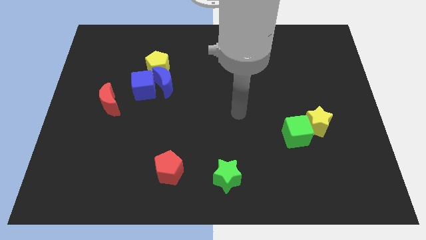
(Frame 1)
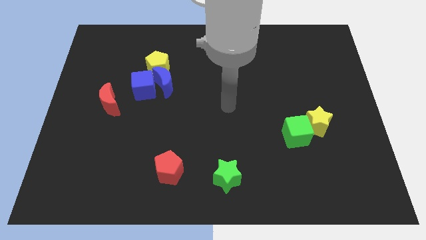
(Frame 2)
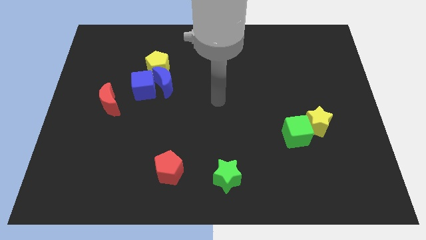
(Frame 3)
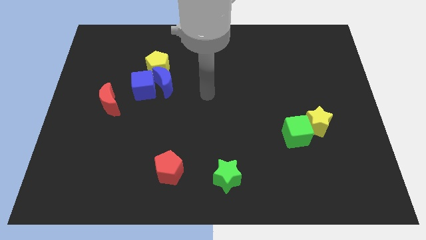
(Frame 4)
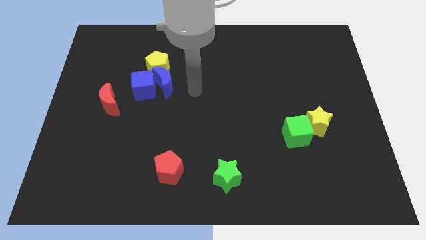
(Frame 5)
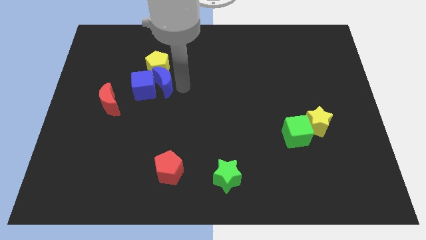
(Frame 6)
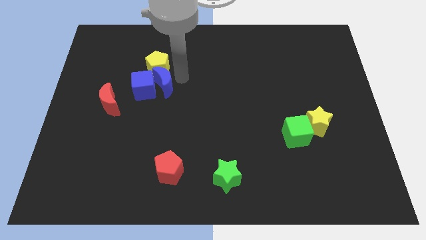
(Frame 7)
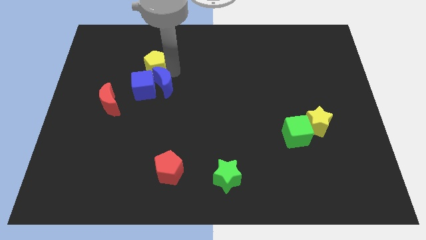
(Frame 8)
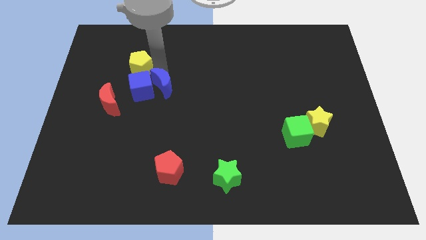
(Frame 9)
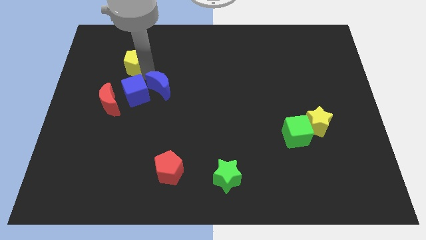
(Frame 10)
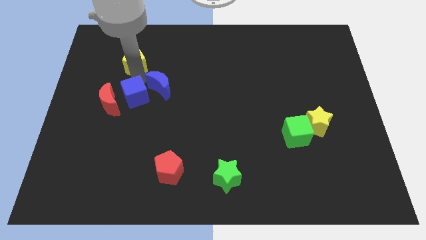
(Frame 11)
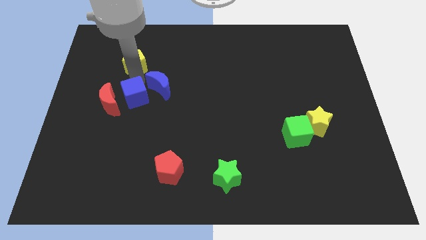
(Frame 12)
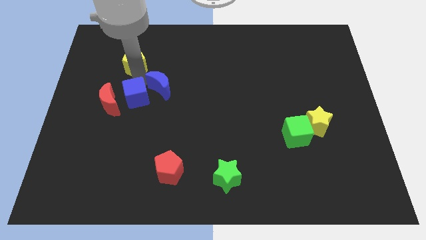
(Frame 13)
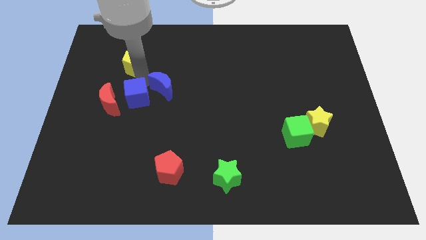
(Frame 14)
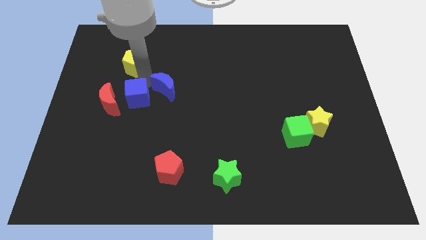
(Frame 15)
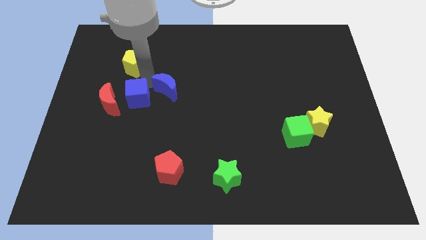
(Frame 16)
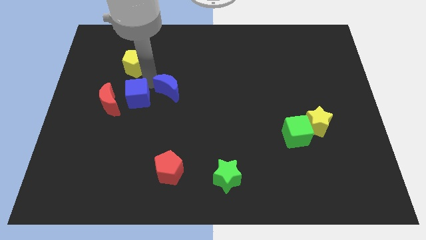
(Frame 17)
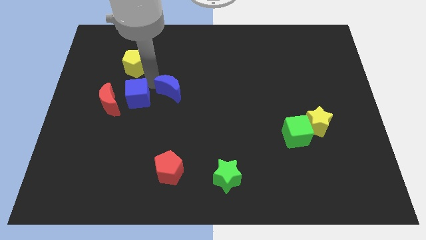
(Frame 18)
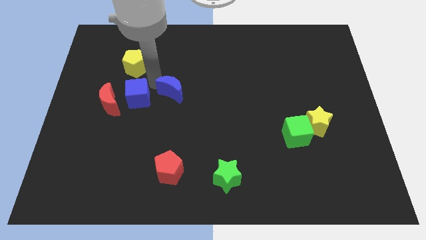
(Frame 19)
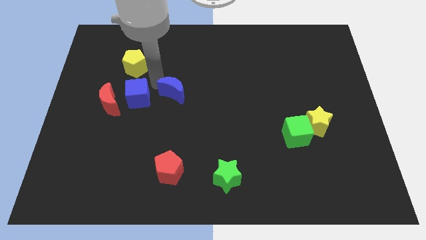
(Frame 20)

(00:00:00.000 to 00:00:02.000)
pull the blue moon apart from the blue cube and yellow pentagon

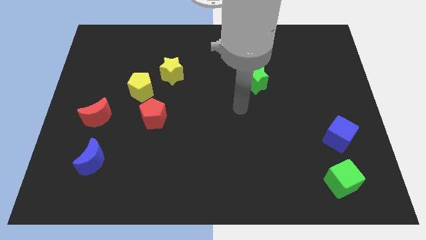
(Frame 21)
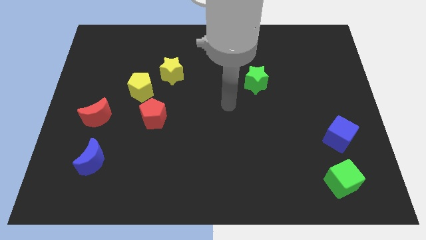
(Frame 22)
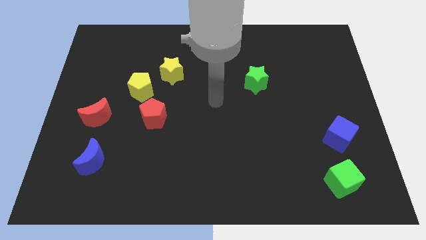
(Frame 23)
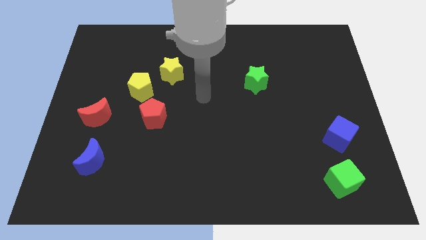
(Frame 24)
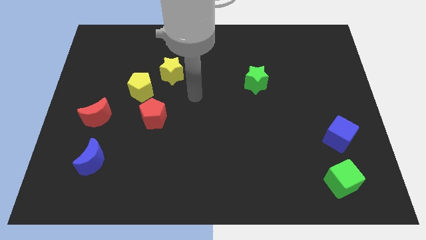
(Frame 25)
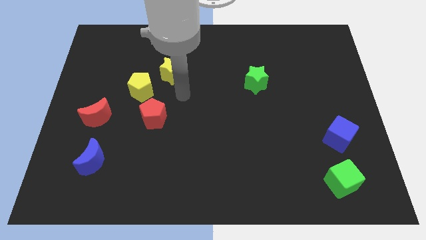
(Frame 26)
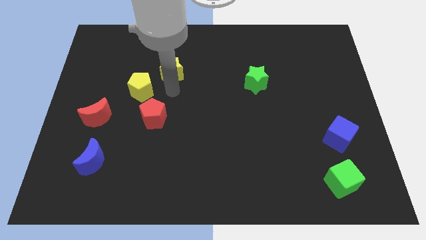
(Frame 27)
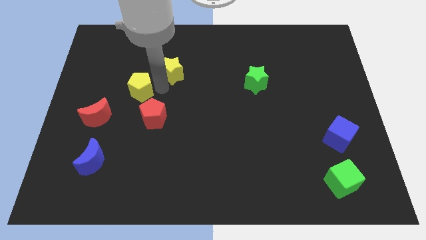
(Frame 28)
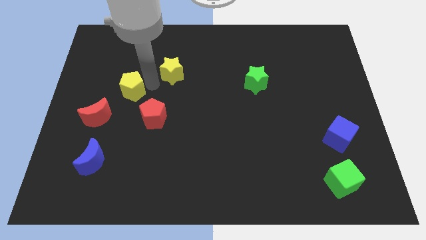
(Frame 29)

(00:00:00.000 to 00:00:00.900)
separate the yellow star from the yellow pentagon

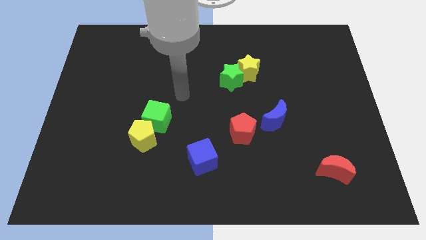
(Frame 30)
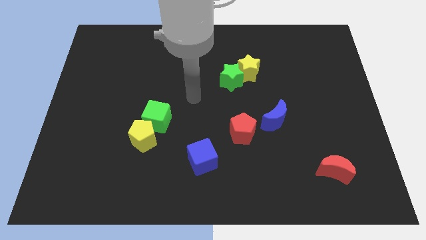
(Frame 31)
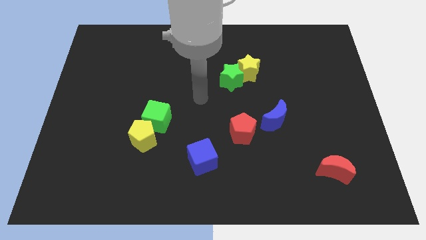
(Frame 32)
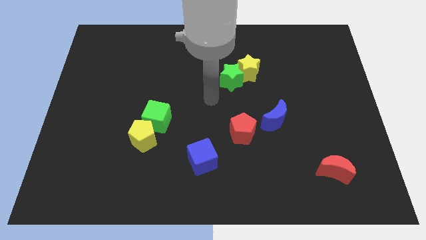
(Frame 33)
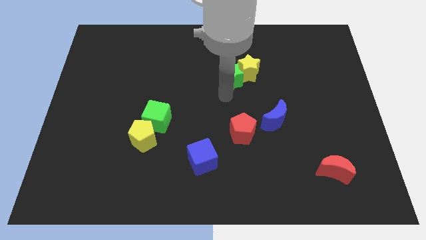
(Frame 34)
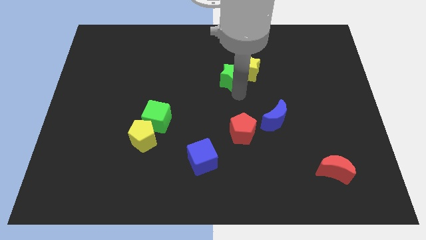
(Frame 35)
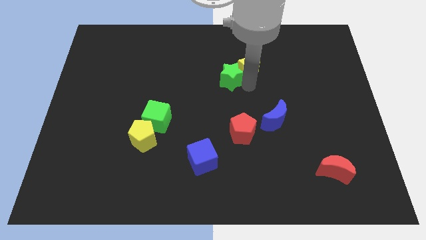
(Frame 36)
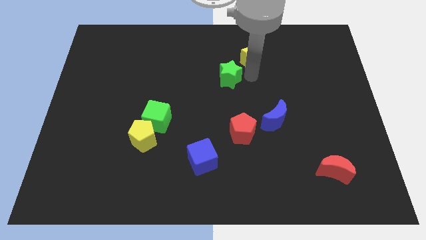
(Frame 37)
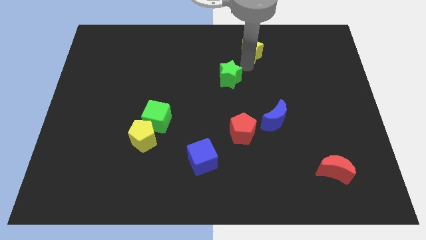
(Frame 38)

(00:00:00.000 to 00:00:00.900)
move the green star away from the yellow star

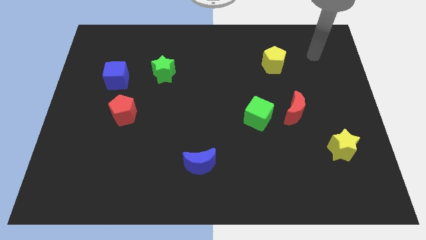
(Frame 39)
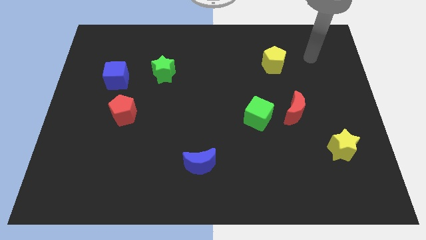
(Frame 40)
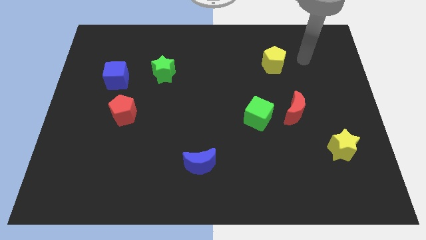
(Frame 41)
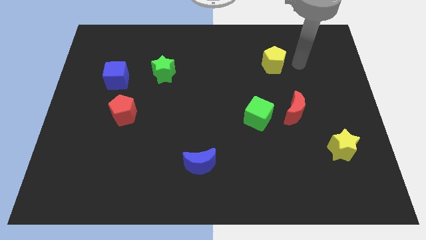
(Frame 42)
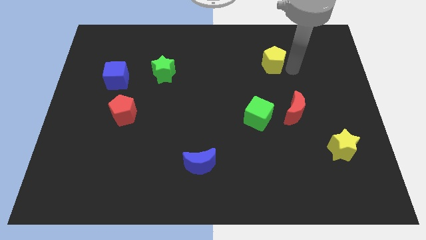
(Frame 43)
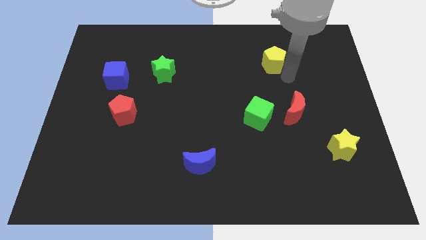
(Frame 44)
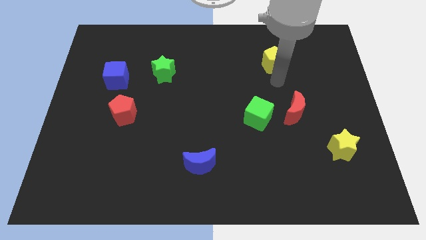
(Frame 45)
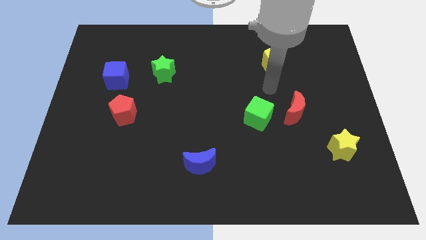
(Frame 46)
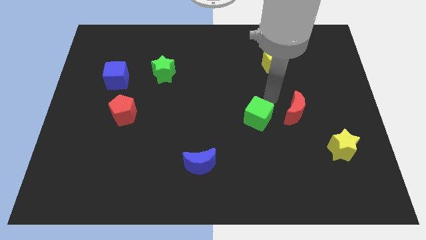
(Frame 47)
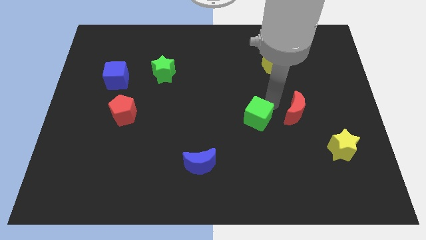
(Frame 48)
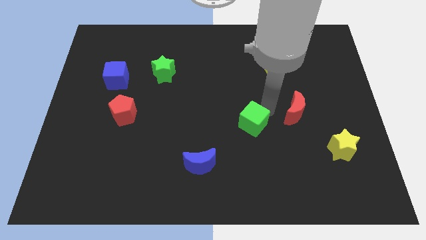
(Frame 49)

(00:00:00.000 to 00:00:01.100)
separate the red moon from the green cube

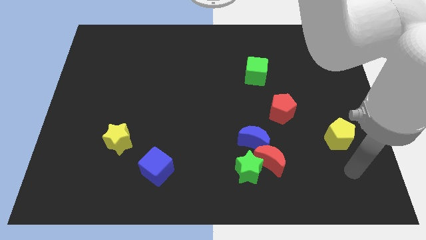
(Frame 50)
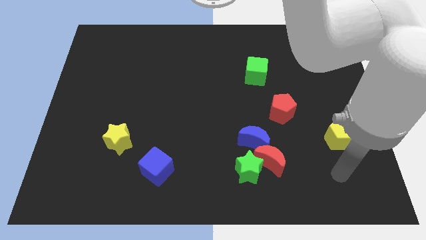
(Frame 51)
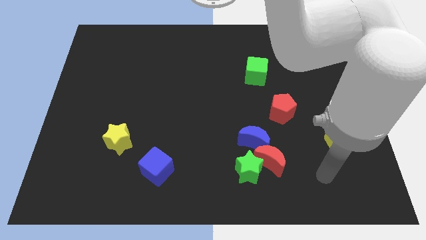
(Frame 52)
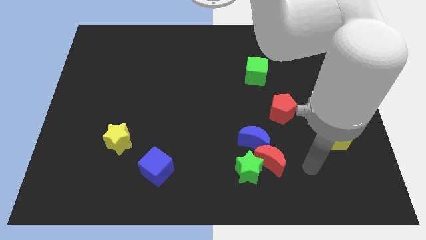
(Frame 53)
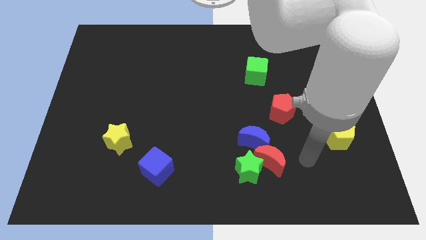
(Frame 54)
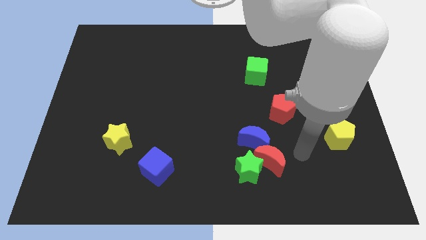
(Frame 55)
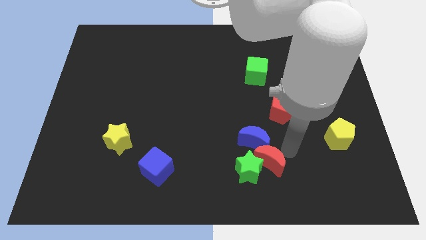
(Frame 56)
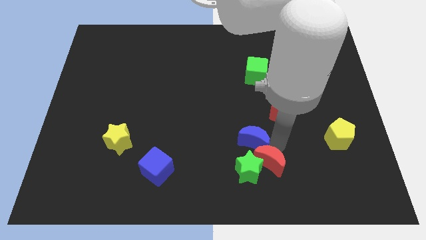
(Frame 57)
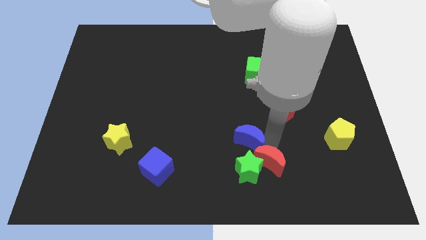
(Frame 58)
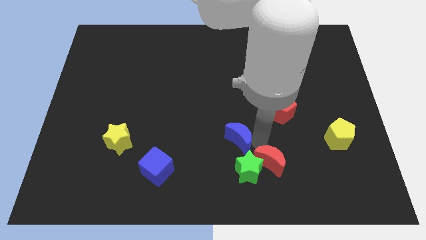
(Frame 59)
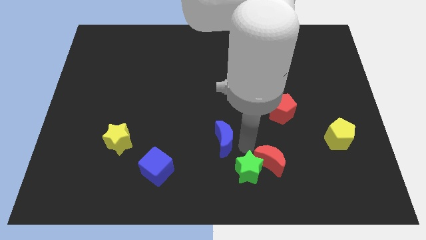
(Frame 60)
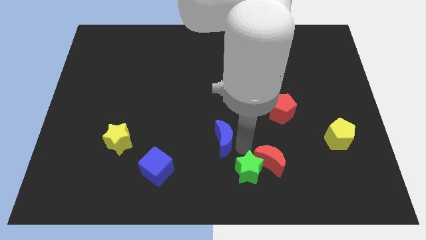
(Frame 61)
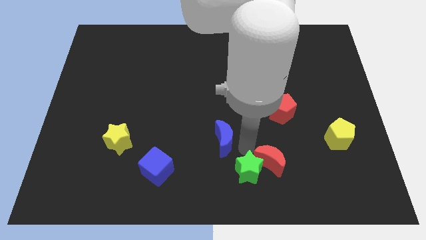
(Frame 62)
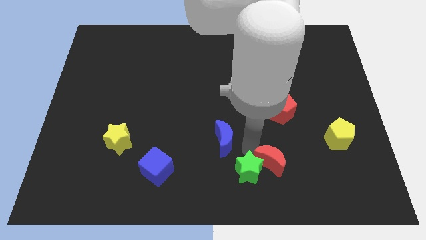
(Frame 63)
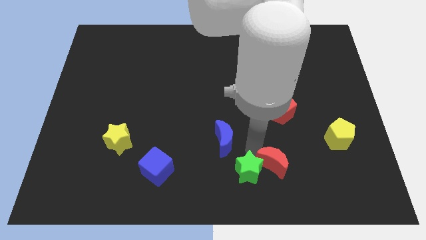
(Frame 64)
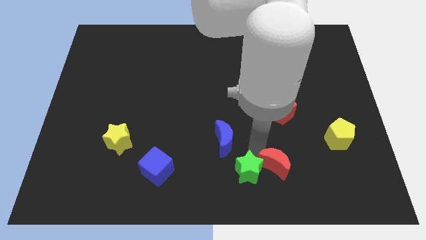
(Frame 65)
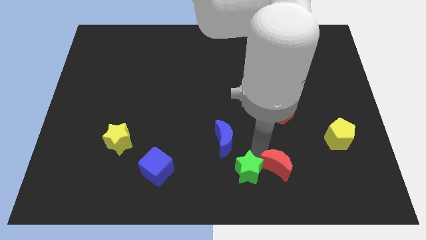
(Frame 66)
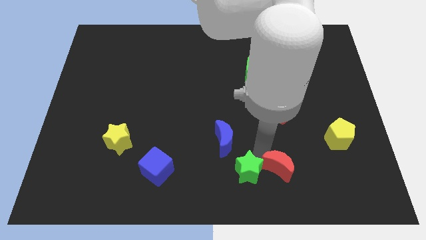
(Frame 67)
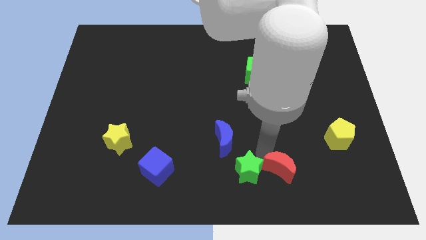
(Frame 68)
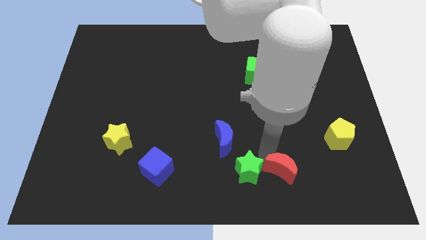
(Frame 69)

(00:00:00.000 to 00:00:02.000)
separate the red moon from the green star and blue moon

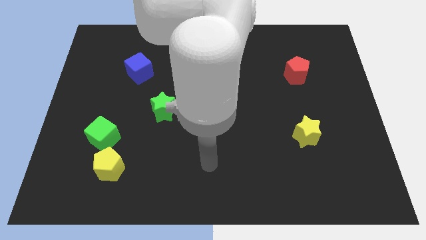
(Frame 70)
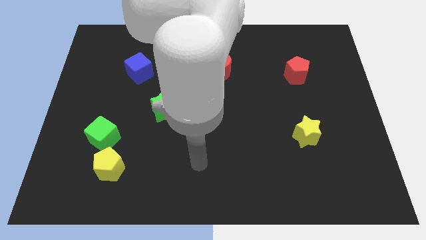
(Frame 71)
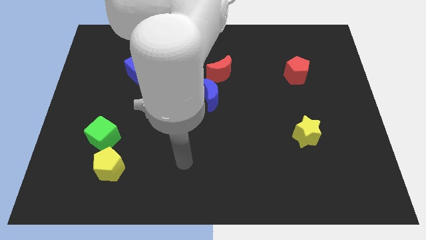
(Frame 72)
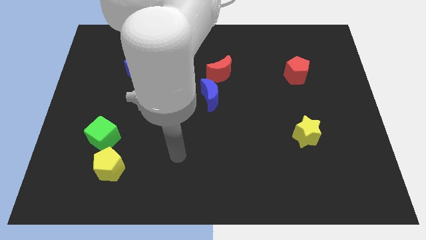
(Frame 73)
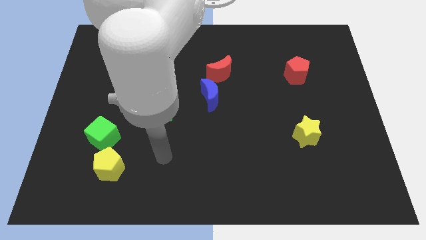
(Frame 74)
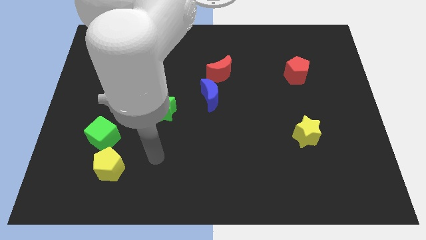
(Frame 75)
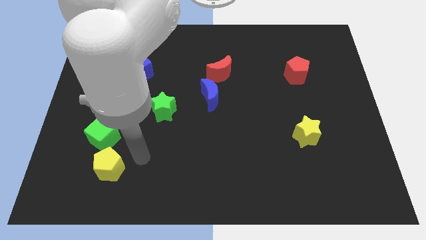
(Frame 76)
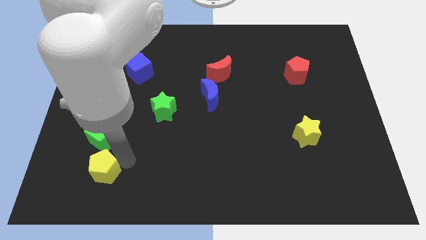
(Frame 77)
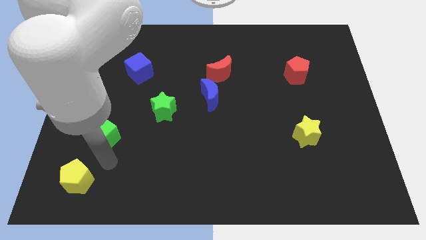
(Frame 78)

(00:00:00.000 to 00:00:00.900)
pull the green cube apart from the yellow pentagon

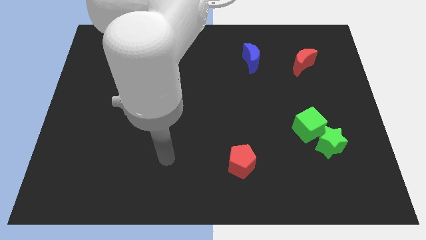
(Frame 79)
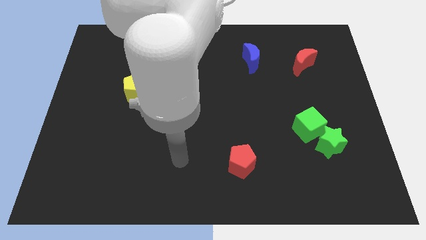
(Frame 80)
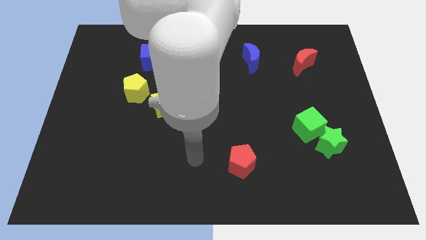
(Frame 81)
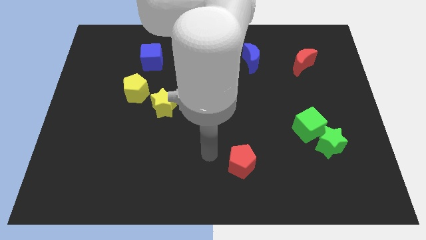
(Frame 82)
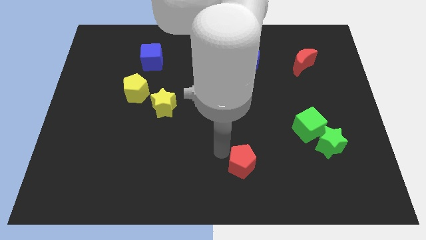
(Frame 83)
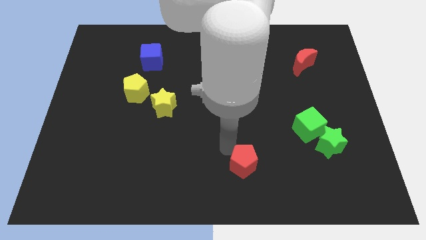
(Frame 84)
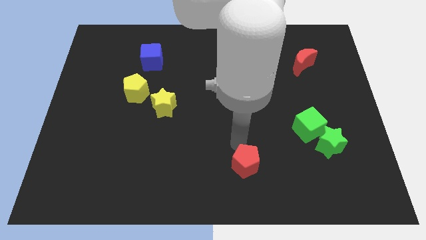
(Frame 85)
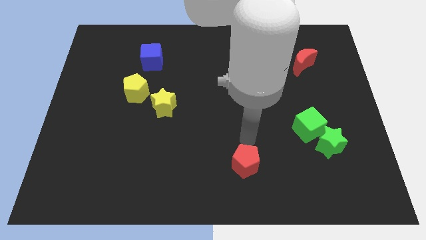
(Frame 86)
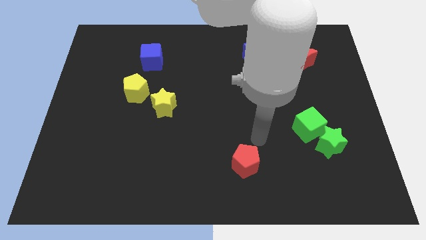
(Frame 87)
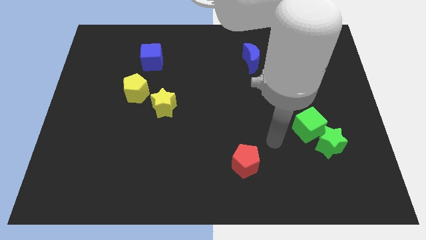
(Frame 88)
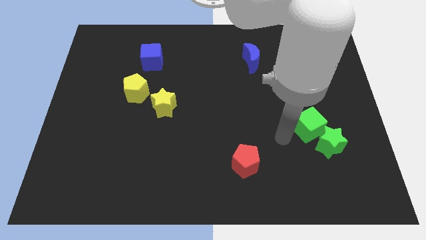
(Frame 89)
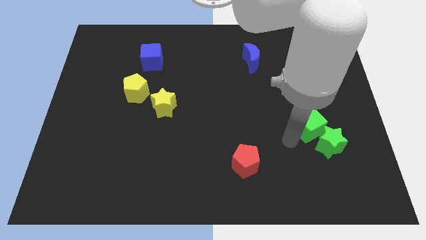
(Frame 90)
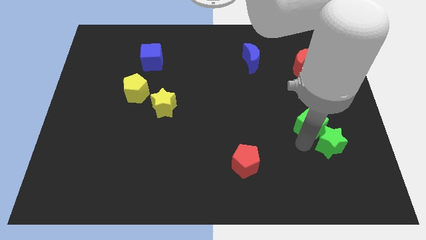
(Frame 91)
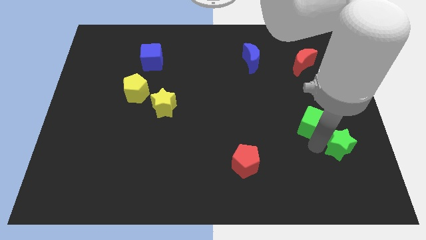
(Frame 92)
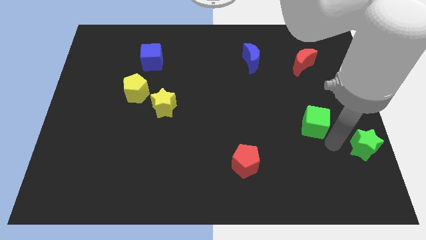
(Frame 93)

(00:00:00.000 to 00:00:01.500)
move the green cube away from the green star
